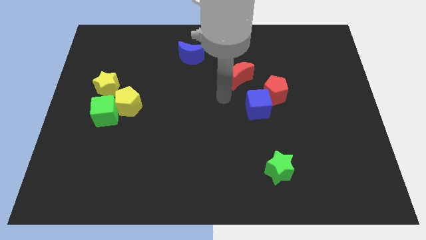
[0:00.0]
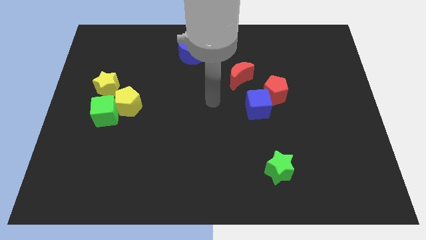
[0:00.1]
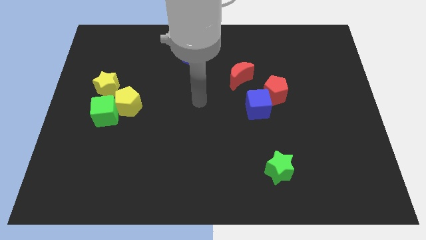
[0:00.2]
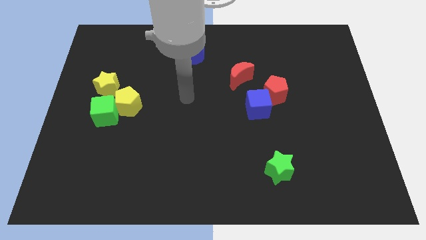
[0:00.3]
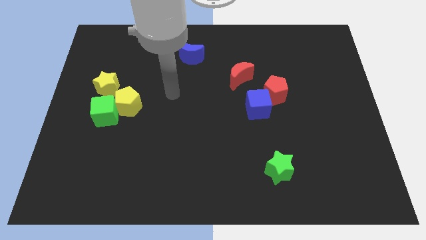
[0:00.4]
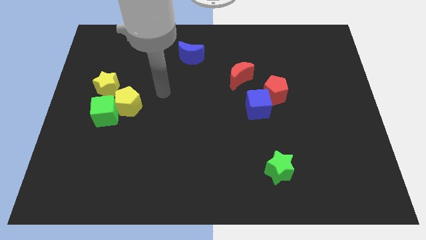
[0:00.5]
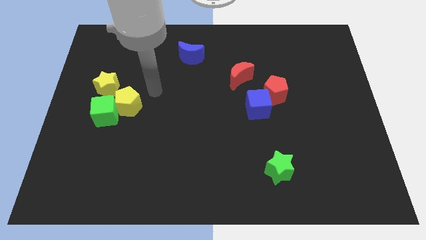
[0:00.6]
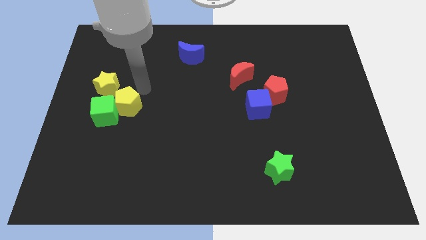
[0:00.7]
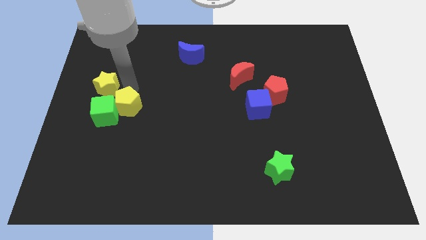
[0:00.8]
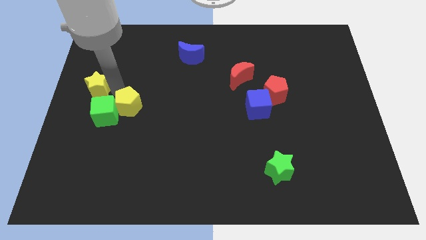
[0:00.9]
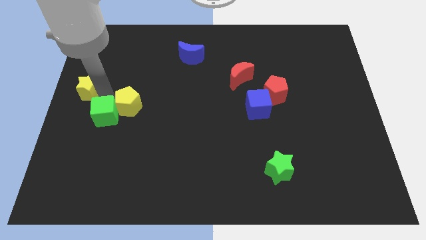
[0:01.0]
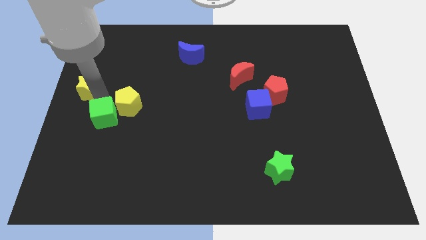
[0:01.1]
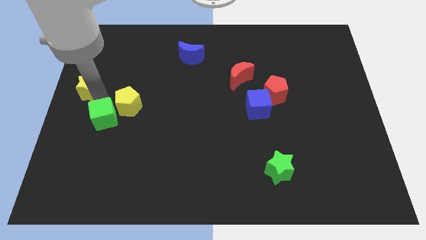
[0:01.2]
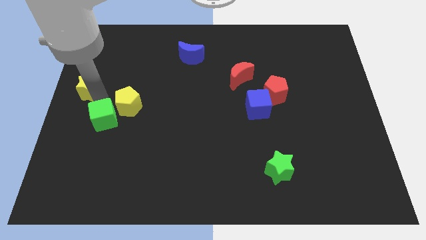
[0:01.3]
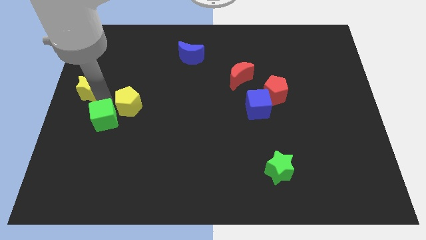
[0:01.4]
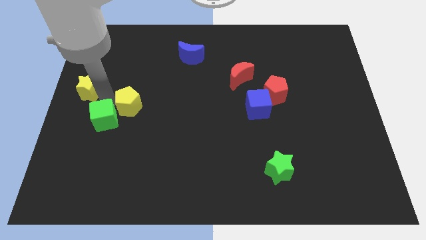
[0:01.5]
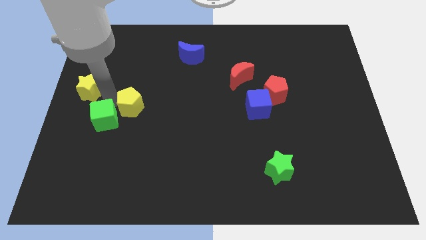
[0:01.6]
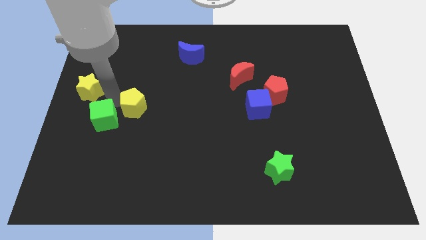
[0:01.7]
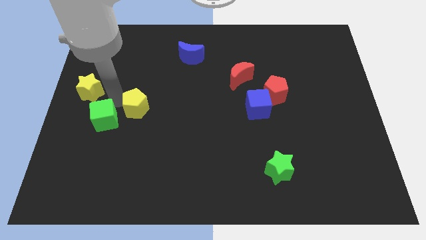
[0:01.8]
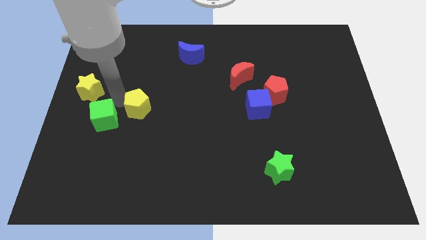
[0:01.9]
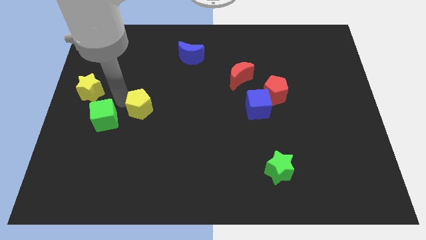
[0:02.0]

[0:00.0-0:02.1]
move the yellow pentagon away from the green cube and yellow star

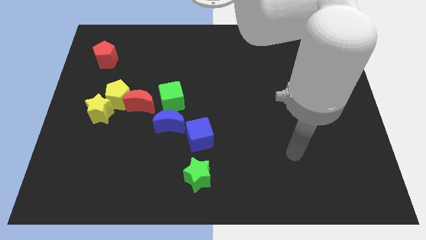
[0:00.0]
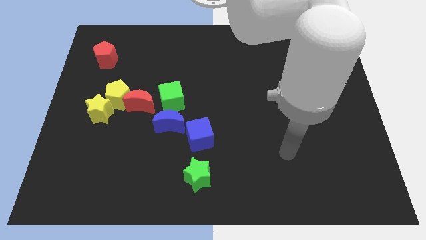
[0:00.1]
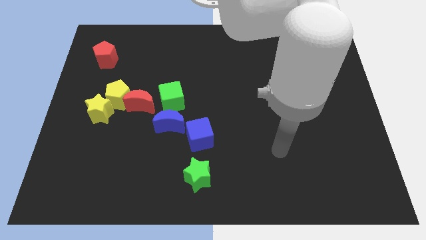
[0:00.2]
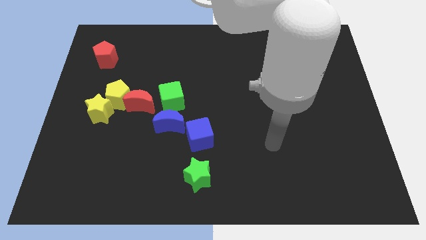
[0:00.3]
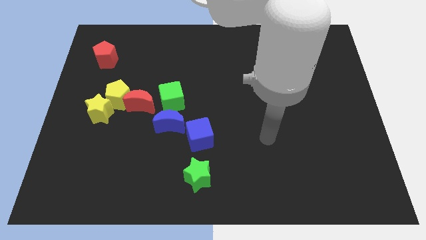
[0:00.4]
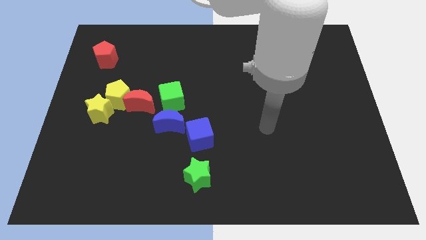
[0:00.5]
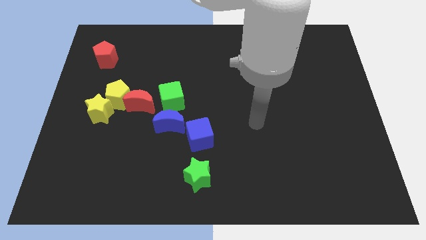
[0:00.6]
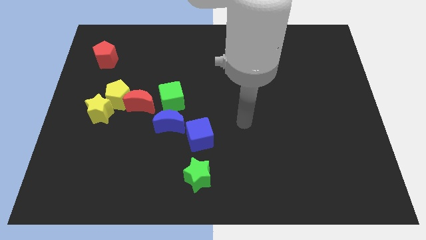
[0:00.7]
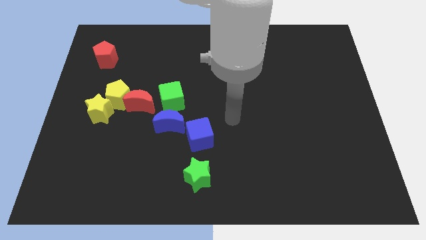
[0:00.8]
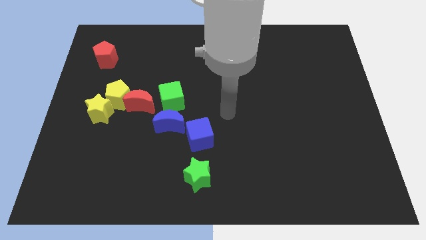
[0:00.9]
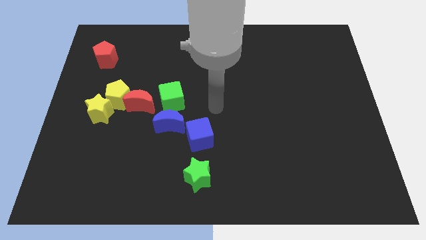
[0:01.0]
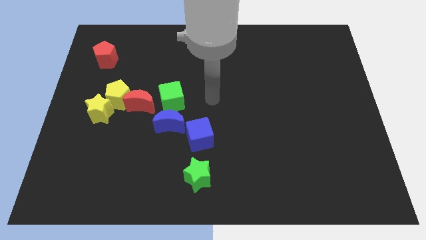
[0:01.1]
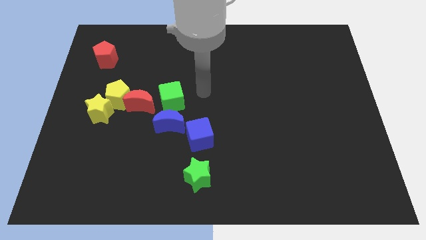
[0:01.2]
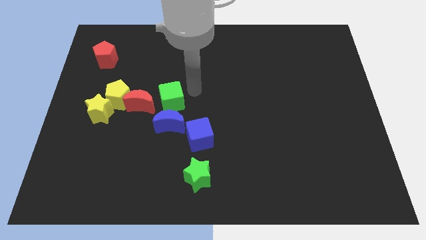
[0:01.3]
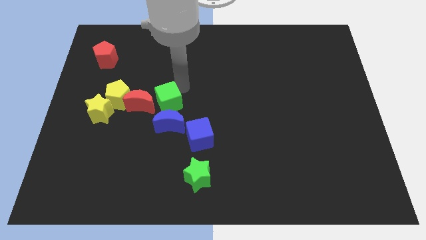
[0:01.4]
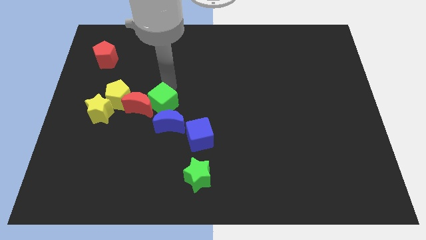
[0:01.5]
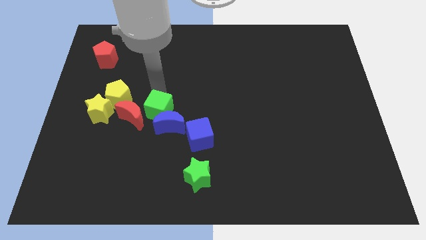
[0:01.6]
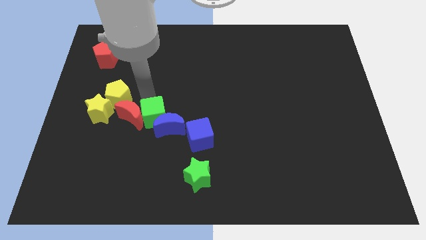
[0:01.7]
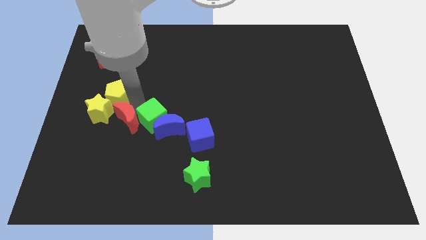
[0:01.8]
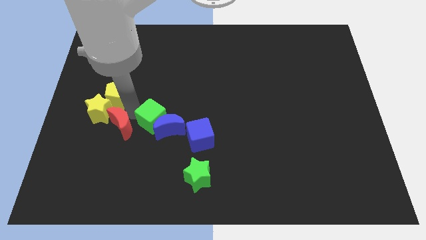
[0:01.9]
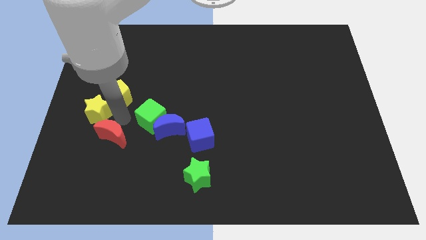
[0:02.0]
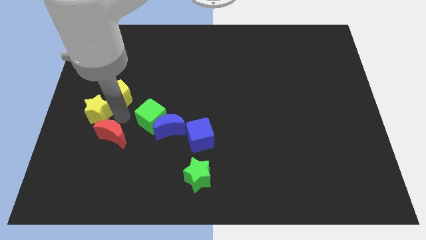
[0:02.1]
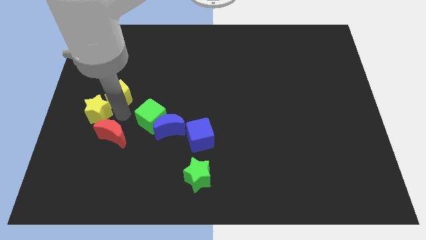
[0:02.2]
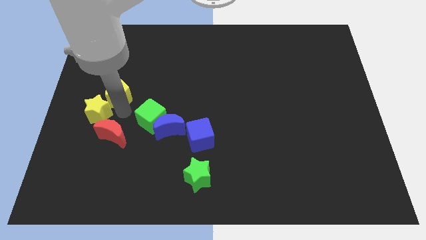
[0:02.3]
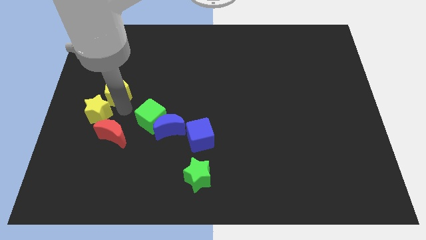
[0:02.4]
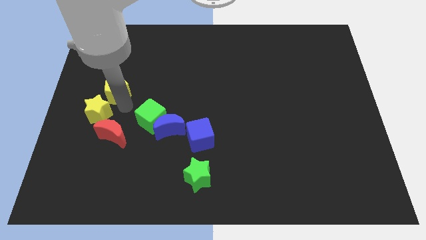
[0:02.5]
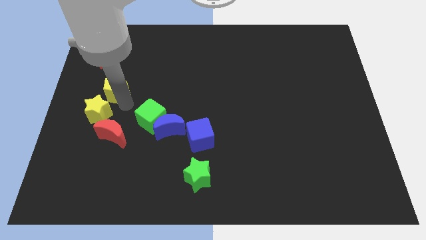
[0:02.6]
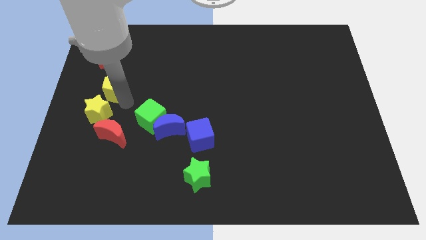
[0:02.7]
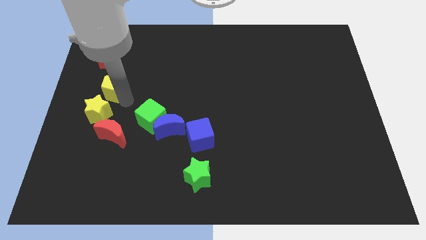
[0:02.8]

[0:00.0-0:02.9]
separate the yellow pentagon from the red moon and yellow star

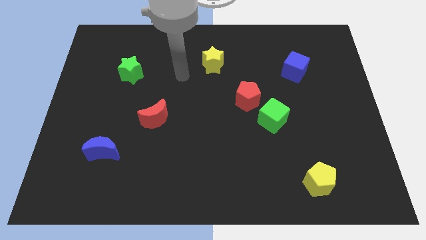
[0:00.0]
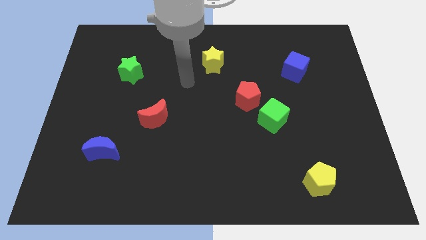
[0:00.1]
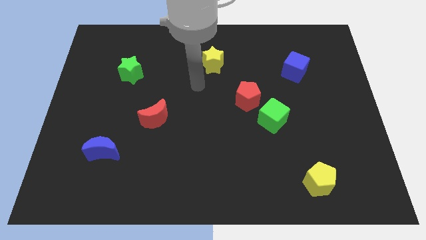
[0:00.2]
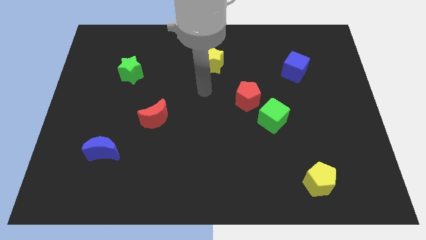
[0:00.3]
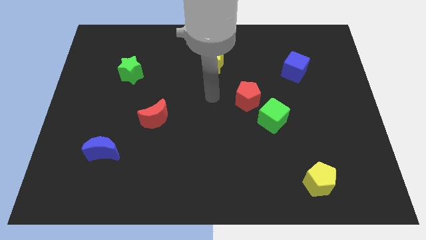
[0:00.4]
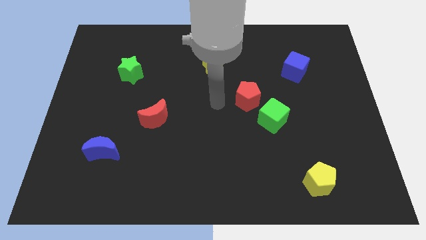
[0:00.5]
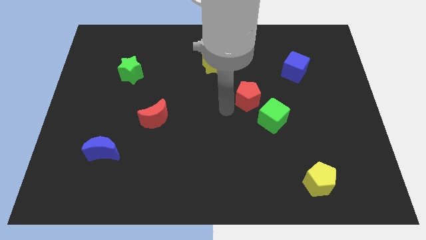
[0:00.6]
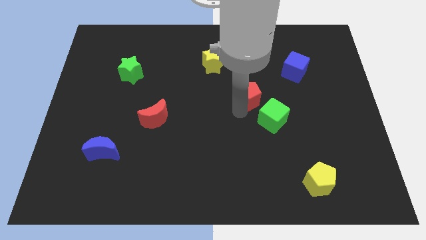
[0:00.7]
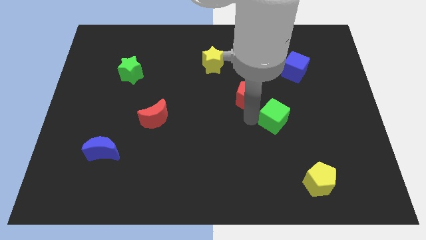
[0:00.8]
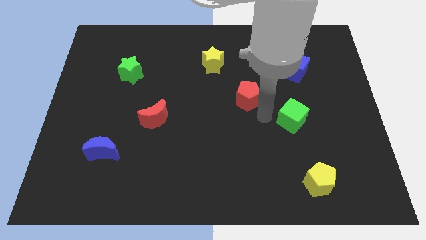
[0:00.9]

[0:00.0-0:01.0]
pull the red pentagon apart from the green cube

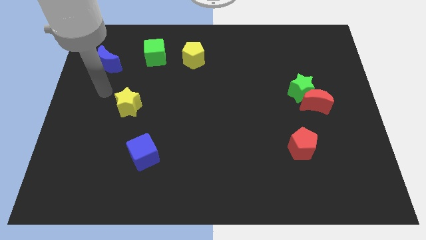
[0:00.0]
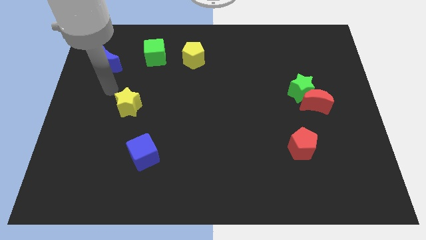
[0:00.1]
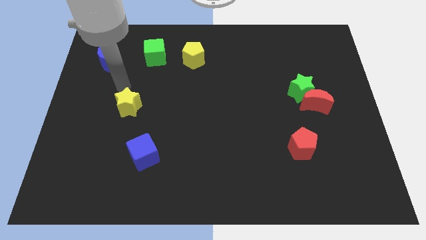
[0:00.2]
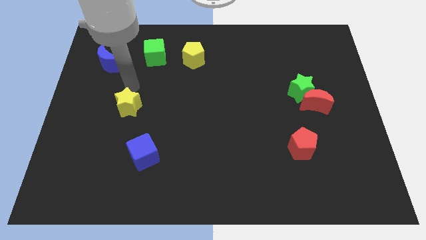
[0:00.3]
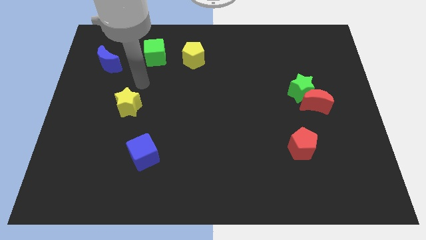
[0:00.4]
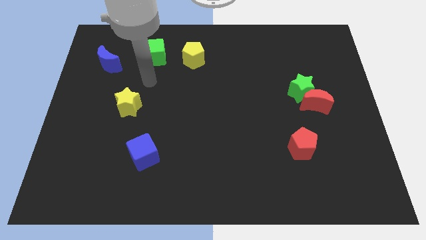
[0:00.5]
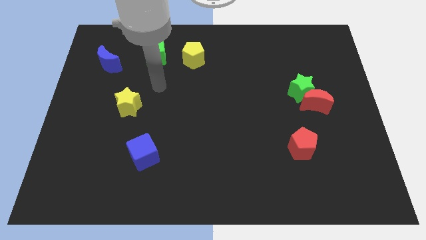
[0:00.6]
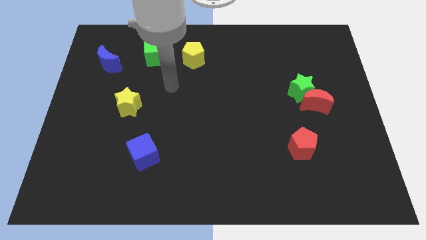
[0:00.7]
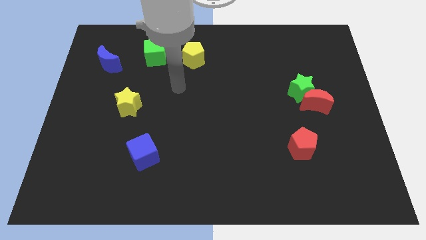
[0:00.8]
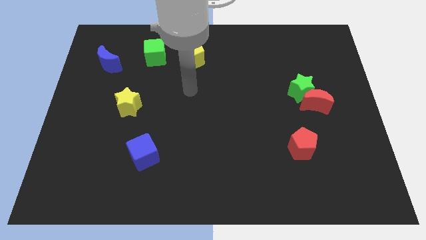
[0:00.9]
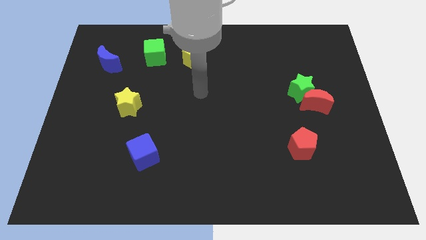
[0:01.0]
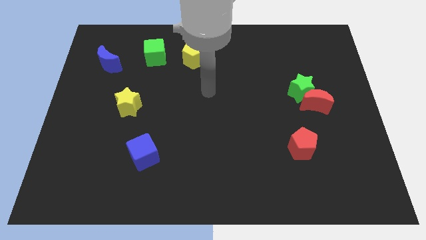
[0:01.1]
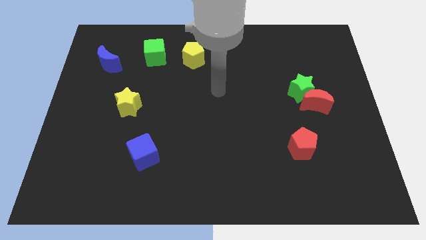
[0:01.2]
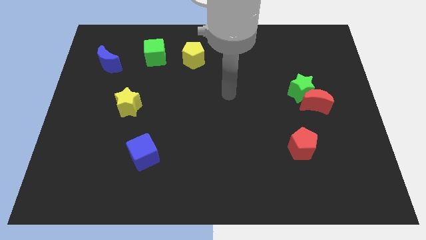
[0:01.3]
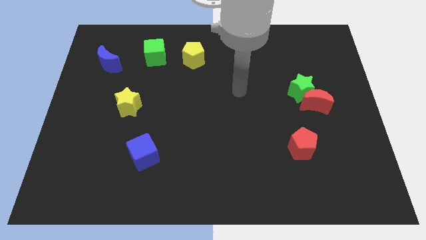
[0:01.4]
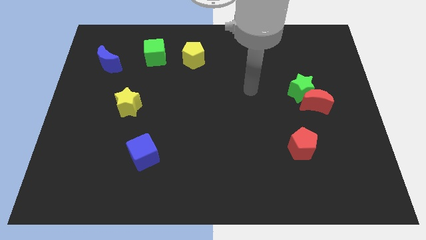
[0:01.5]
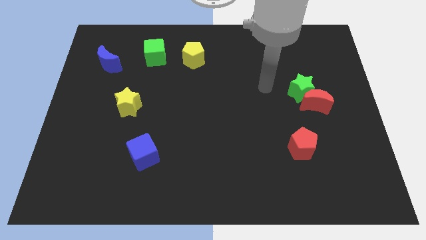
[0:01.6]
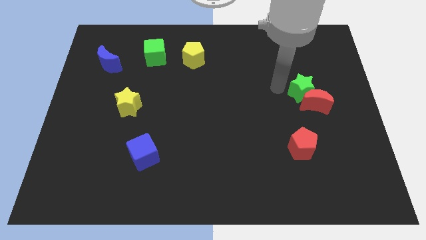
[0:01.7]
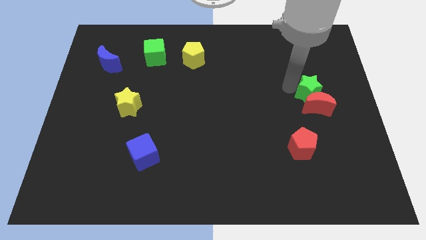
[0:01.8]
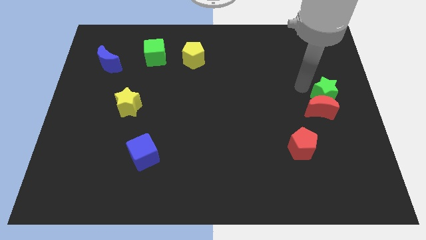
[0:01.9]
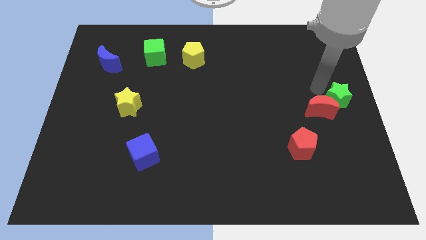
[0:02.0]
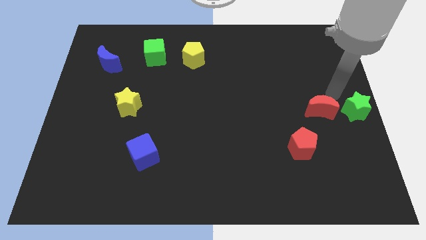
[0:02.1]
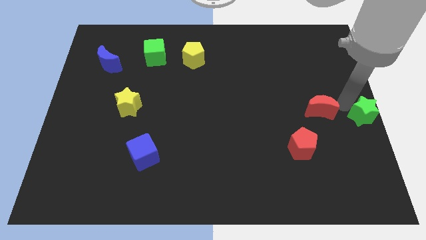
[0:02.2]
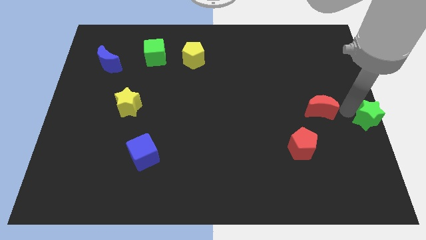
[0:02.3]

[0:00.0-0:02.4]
move the red moon away from the green star

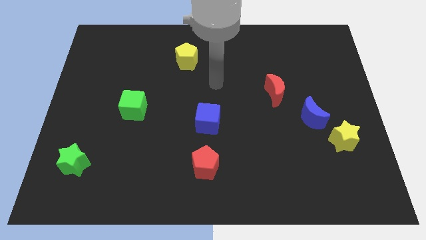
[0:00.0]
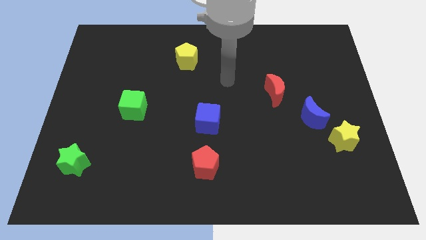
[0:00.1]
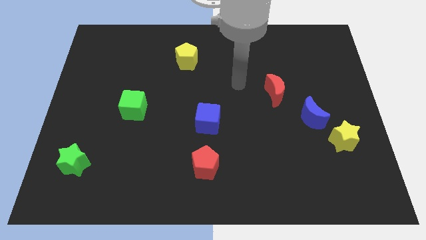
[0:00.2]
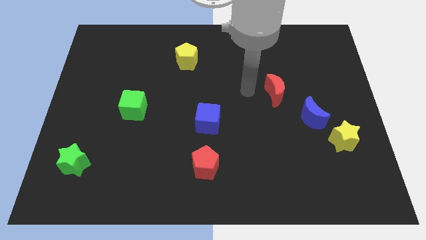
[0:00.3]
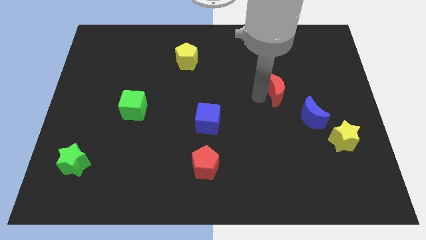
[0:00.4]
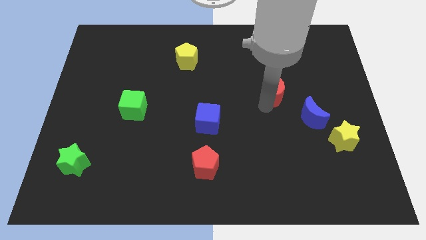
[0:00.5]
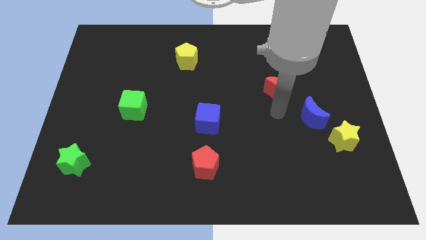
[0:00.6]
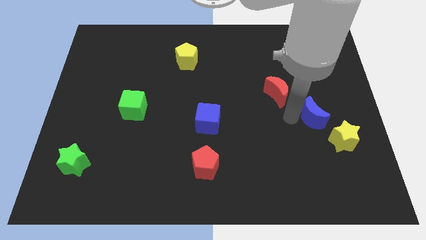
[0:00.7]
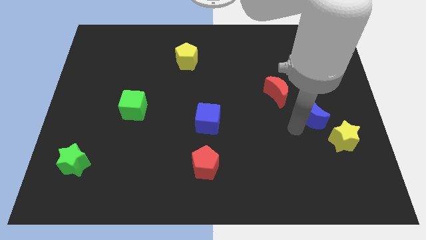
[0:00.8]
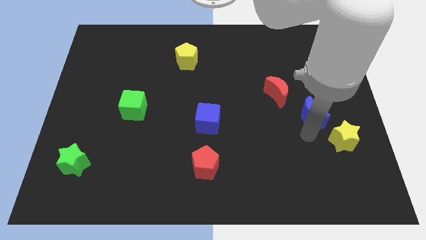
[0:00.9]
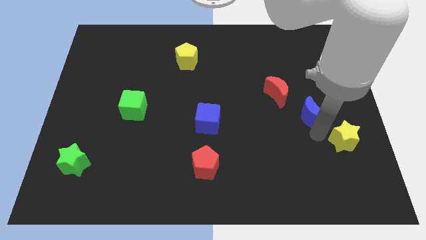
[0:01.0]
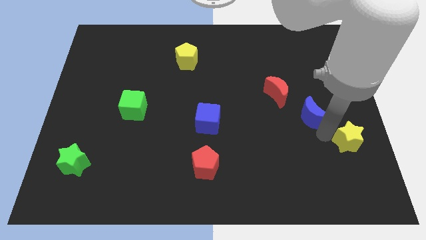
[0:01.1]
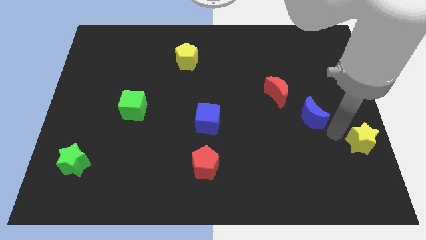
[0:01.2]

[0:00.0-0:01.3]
move the blue moon away from the yellow star
